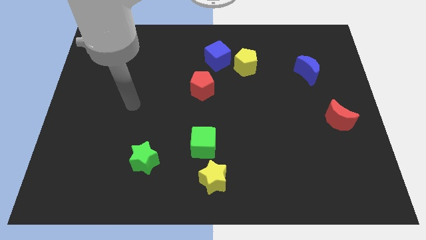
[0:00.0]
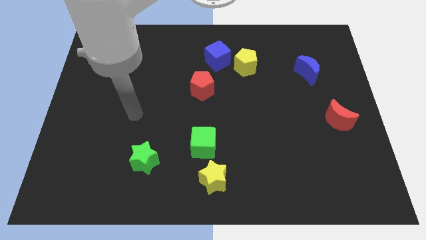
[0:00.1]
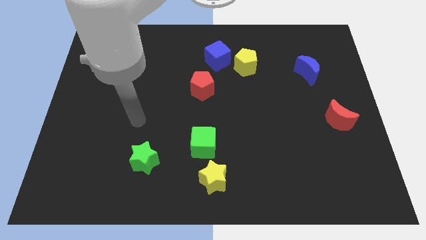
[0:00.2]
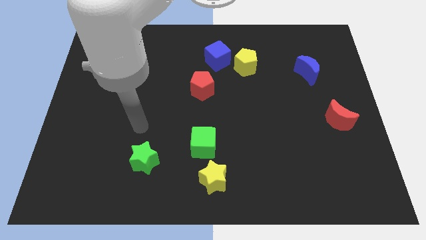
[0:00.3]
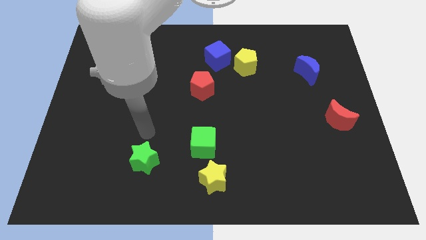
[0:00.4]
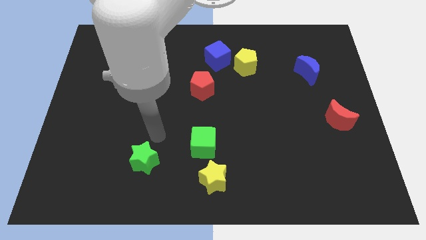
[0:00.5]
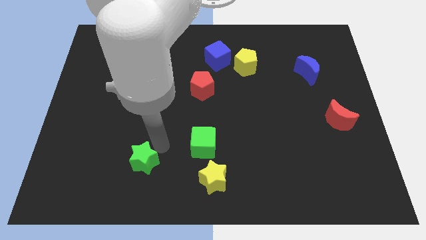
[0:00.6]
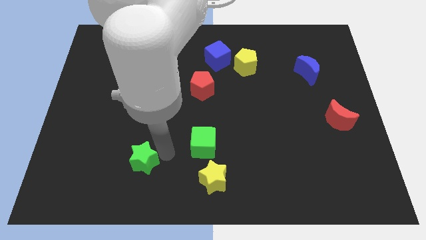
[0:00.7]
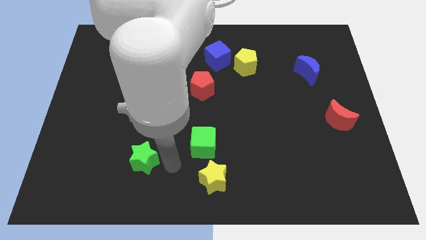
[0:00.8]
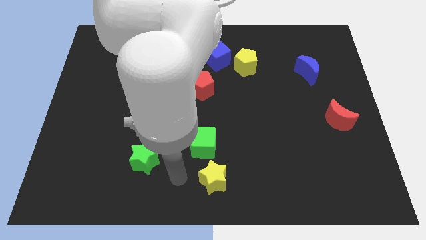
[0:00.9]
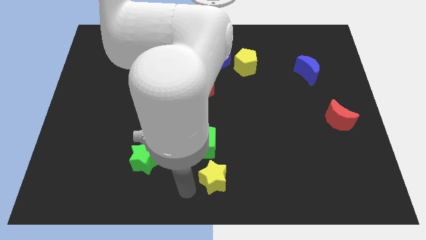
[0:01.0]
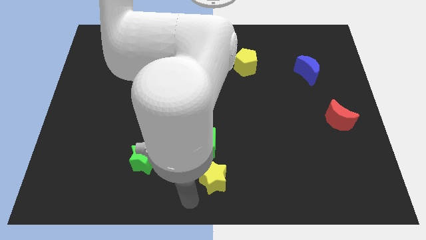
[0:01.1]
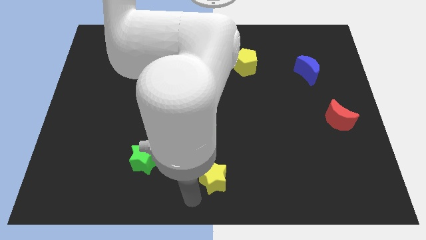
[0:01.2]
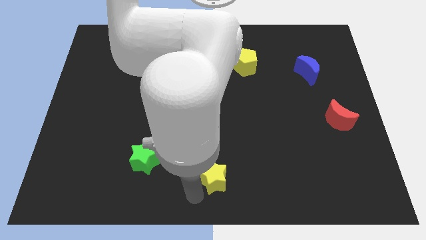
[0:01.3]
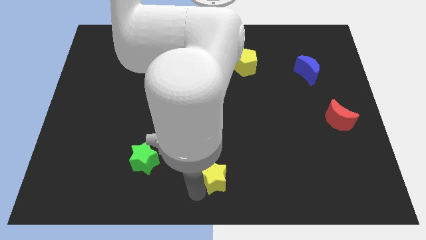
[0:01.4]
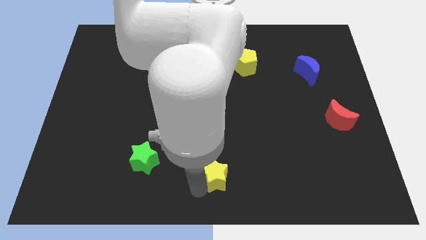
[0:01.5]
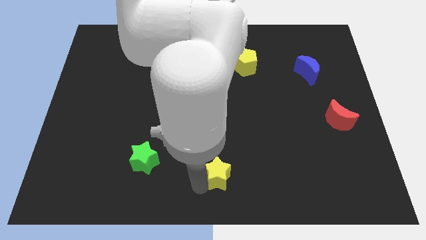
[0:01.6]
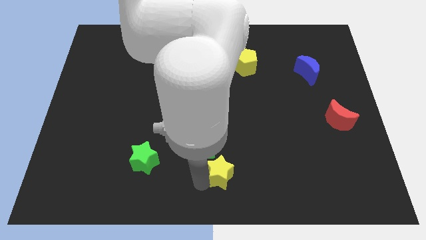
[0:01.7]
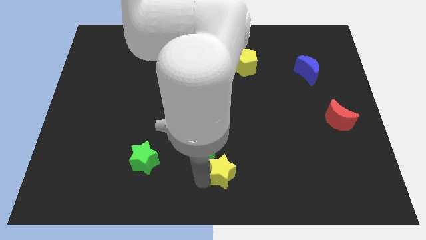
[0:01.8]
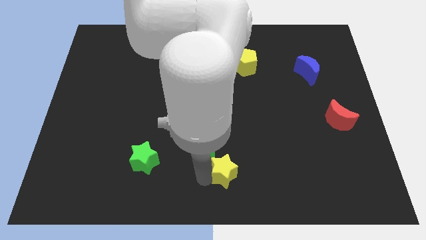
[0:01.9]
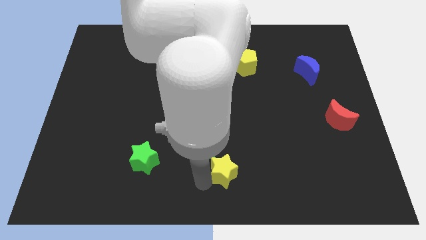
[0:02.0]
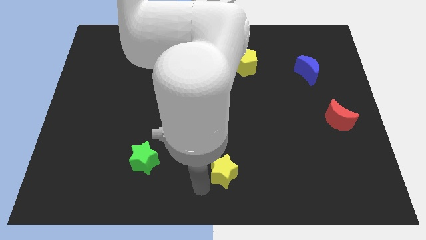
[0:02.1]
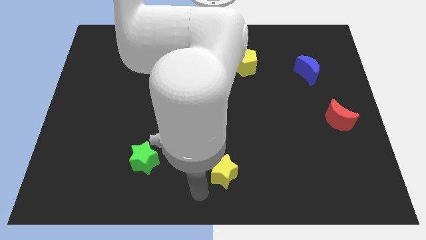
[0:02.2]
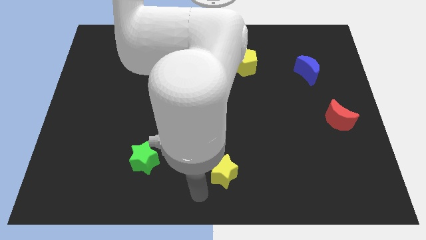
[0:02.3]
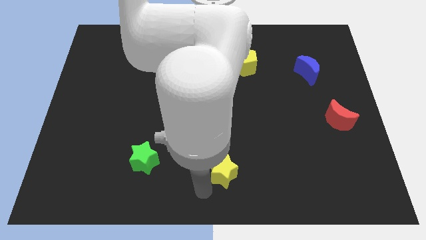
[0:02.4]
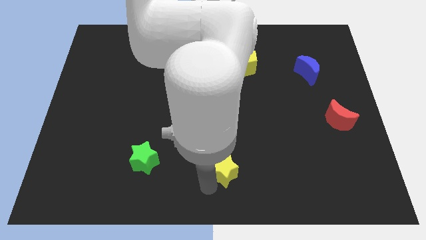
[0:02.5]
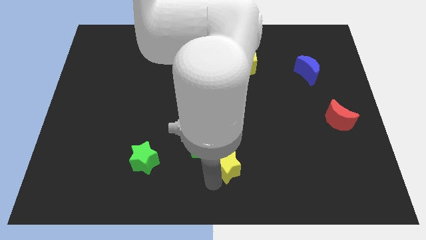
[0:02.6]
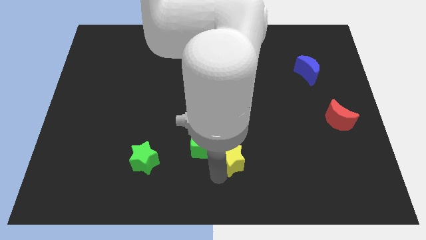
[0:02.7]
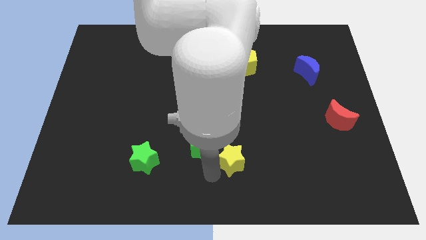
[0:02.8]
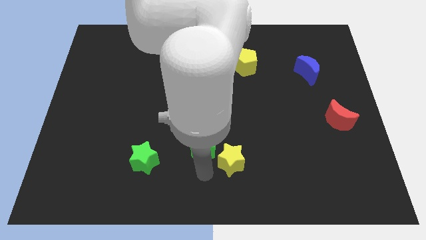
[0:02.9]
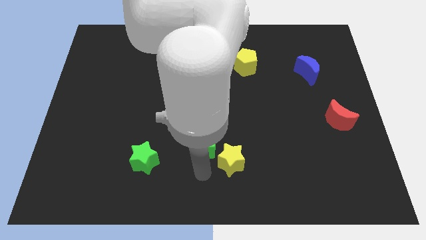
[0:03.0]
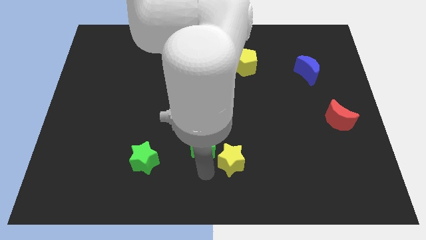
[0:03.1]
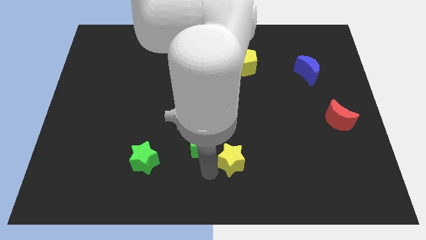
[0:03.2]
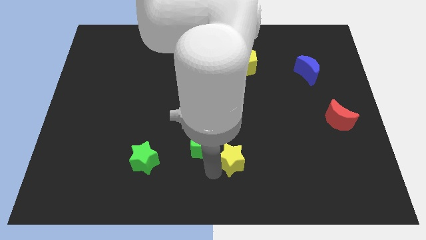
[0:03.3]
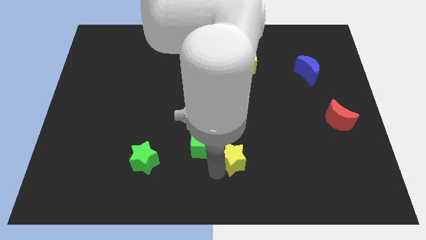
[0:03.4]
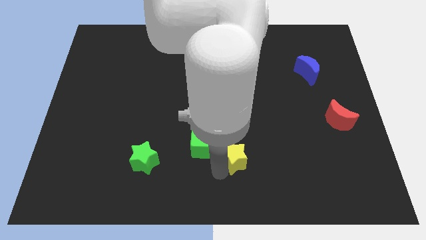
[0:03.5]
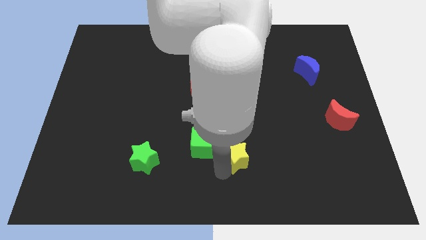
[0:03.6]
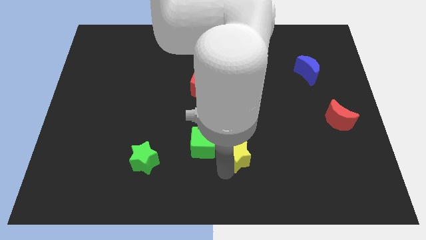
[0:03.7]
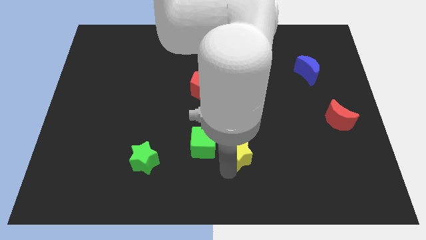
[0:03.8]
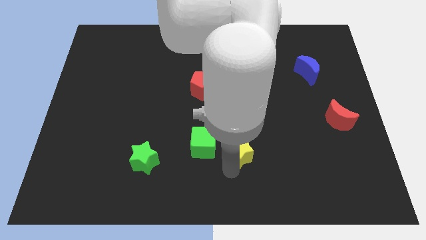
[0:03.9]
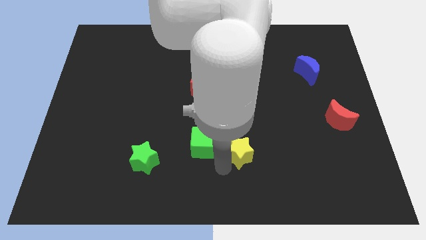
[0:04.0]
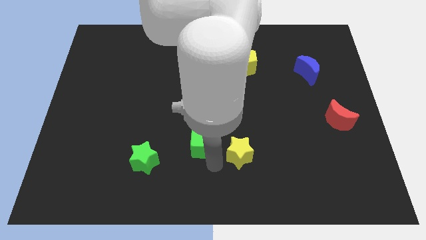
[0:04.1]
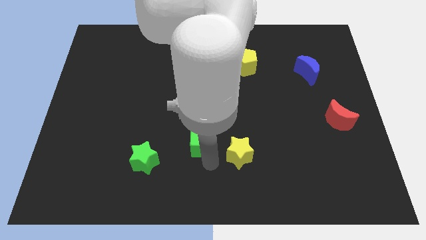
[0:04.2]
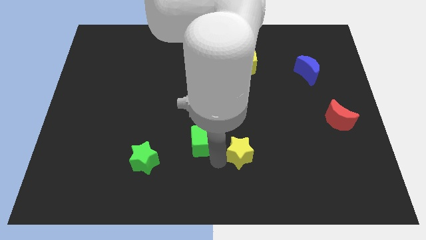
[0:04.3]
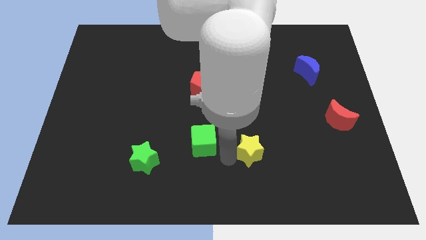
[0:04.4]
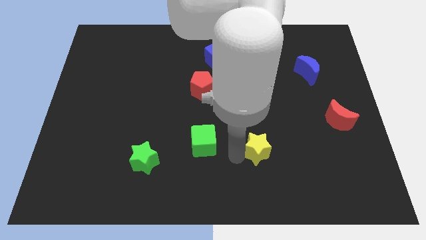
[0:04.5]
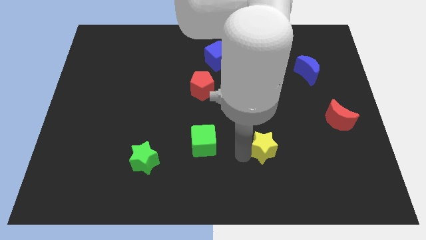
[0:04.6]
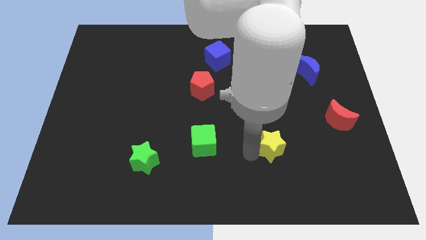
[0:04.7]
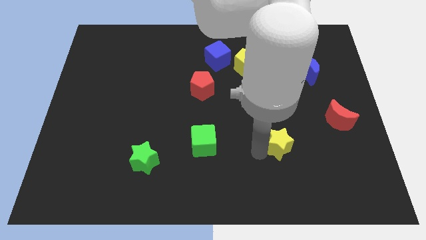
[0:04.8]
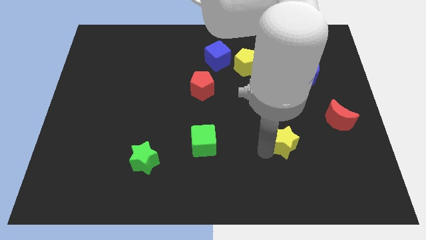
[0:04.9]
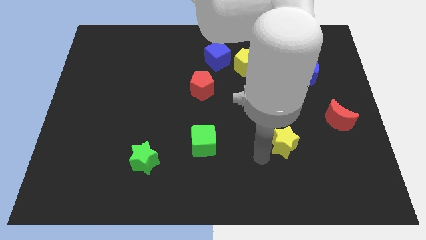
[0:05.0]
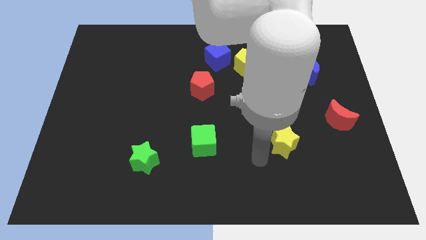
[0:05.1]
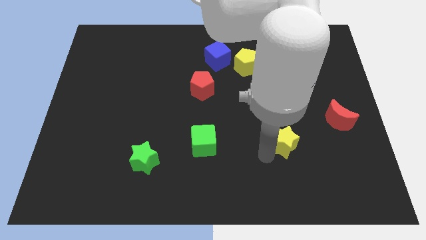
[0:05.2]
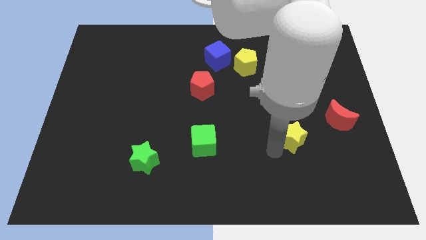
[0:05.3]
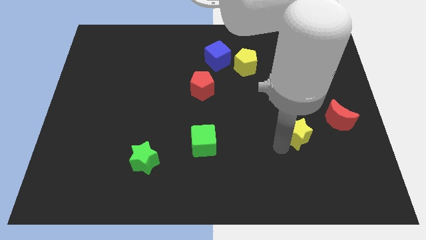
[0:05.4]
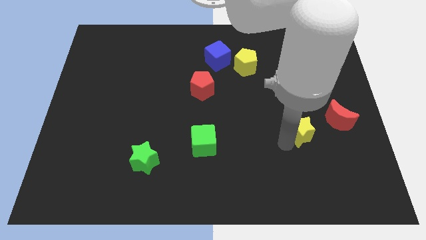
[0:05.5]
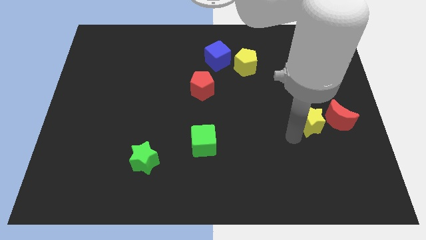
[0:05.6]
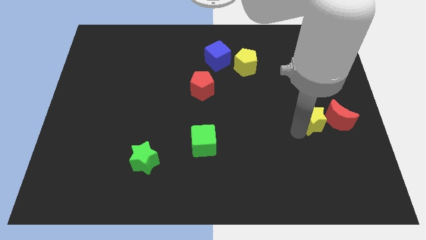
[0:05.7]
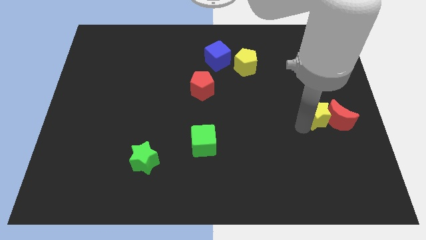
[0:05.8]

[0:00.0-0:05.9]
slide the yellow star towards the red moon

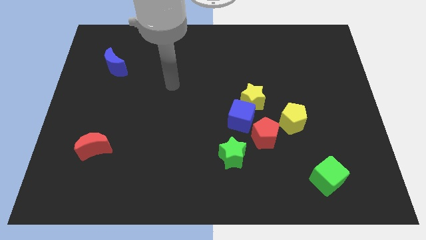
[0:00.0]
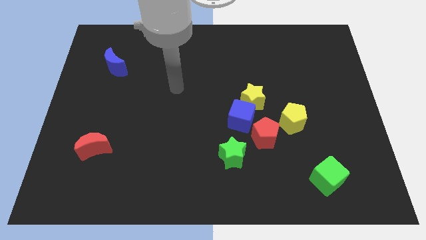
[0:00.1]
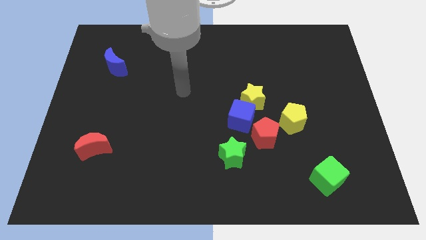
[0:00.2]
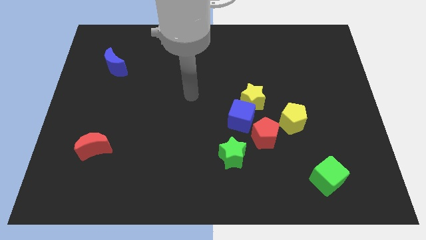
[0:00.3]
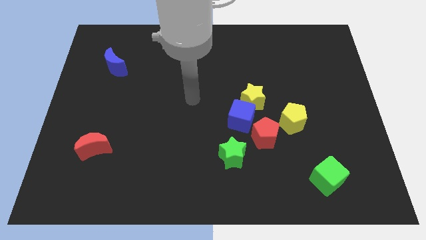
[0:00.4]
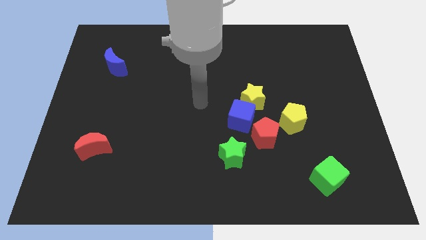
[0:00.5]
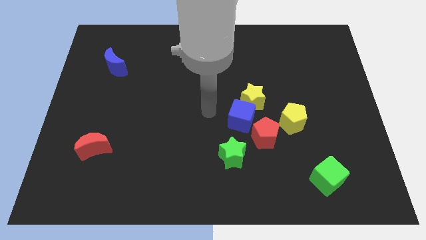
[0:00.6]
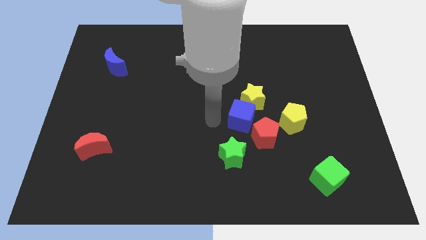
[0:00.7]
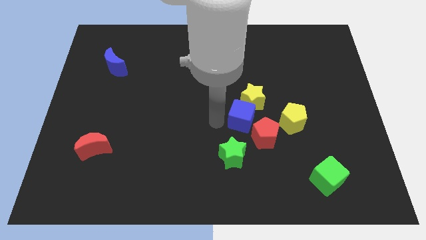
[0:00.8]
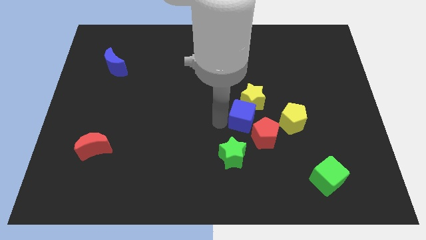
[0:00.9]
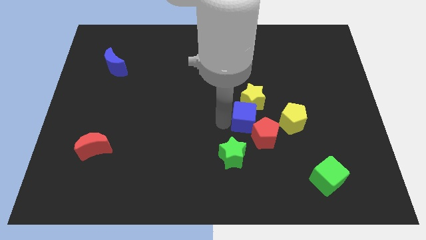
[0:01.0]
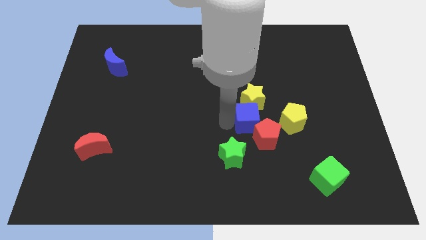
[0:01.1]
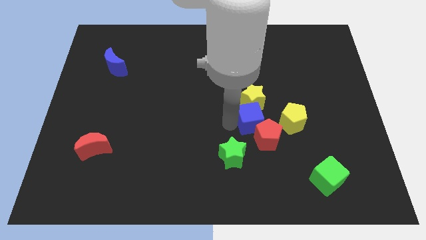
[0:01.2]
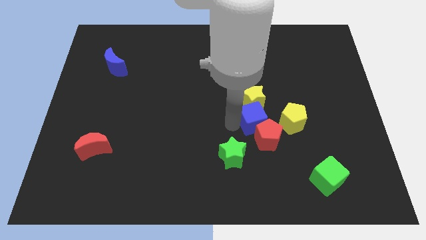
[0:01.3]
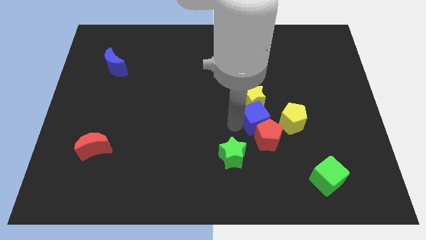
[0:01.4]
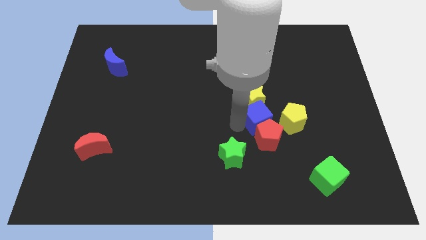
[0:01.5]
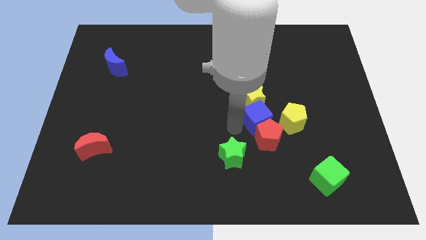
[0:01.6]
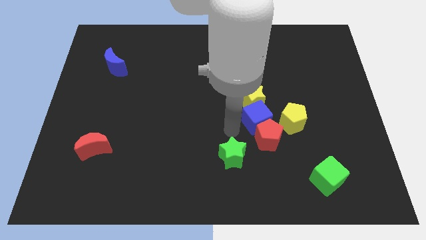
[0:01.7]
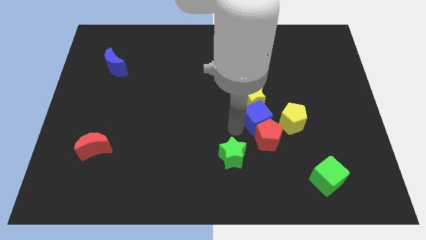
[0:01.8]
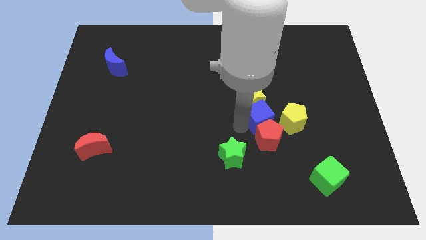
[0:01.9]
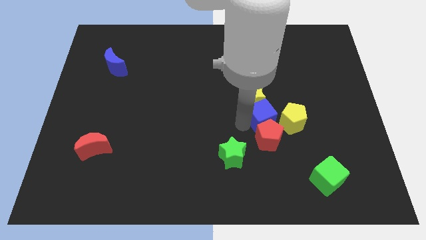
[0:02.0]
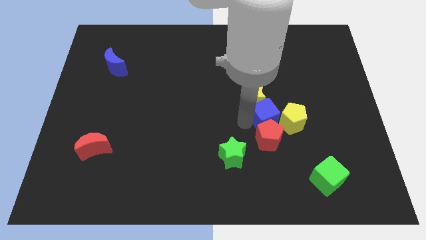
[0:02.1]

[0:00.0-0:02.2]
slide the blue cube to the yellow pentagon

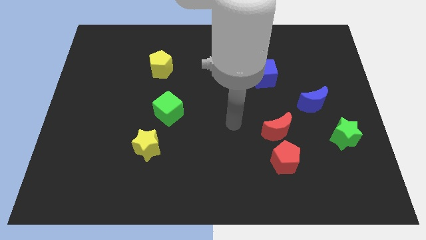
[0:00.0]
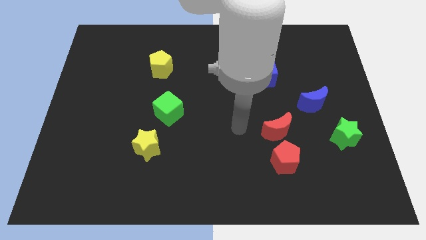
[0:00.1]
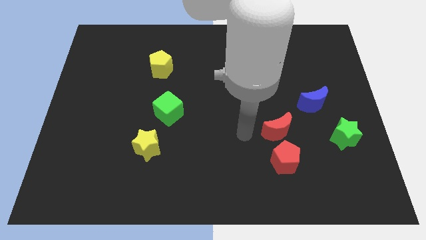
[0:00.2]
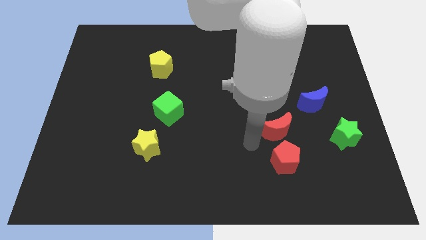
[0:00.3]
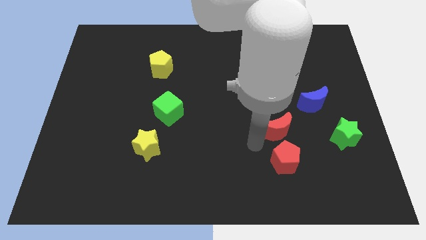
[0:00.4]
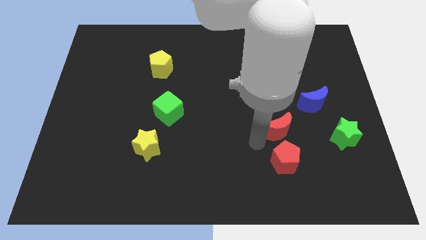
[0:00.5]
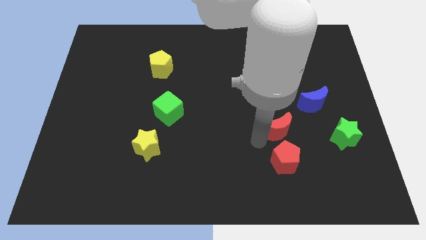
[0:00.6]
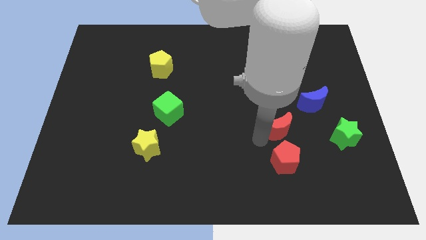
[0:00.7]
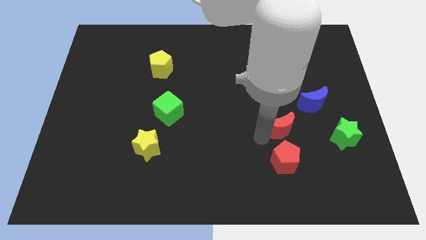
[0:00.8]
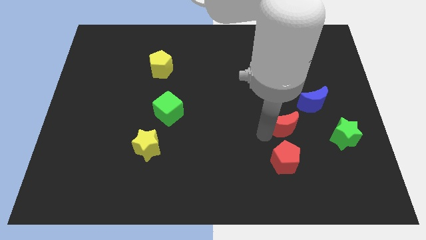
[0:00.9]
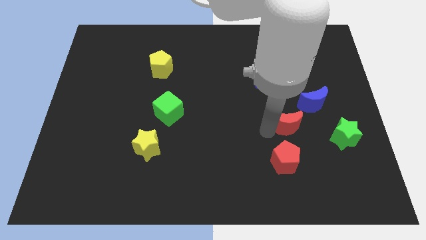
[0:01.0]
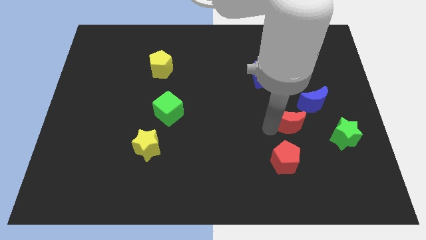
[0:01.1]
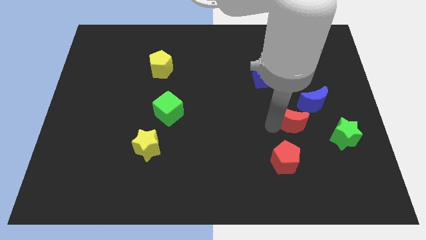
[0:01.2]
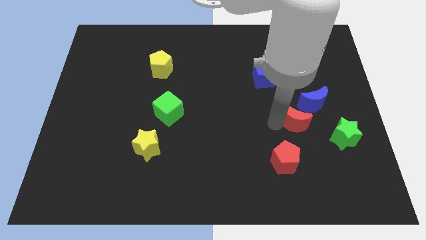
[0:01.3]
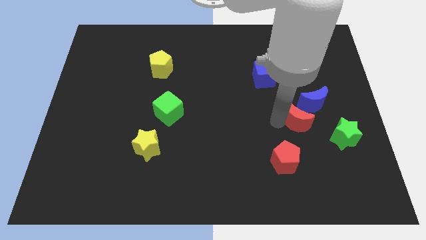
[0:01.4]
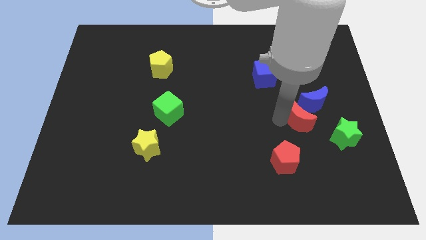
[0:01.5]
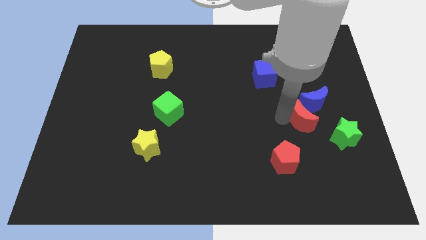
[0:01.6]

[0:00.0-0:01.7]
put the red moon close to the blue moon
